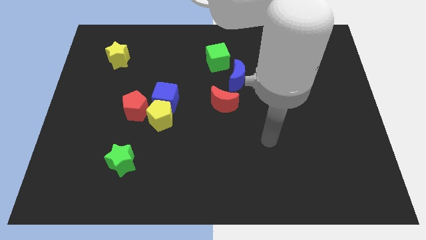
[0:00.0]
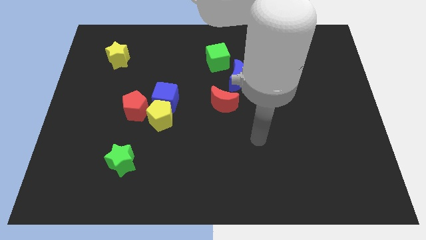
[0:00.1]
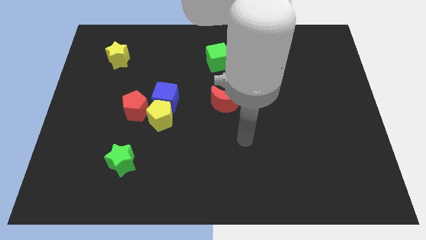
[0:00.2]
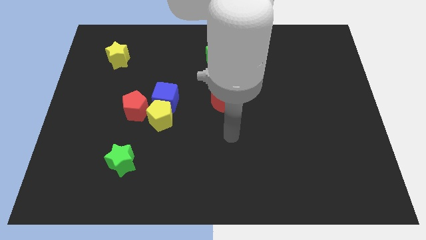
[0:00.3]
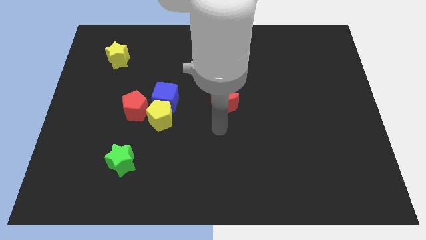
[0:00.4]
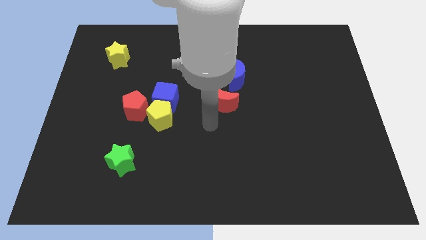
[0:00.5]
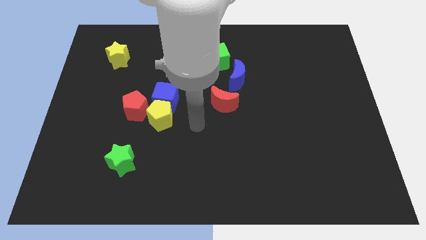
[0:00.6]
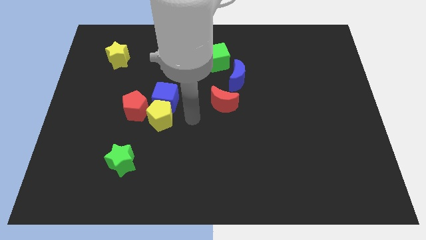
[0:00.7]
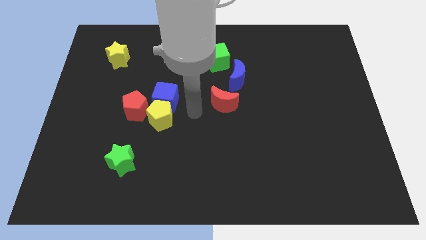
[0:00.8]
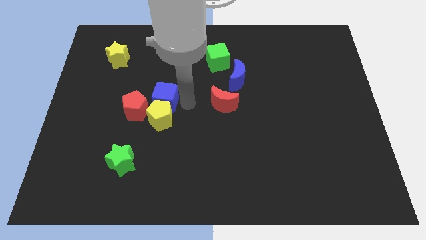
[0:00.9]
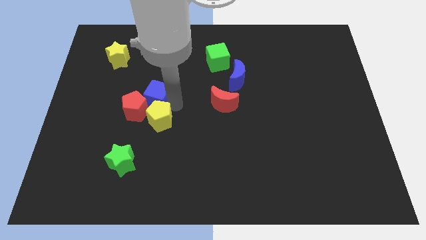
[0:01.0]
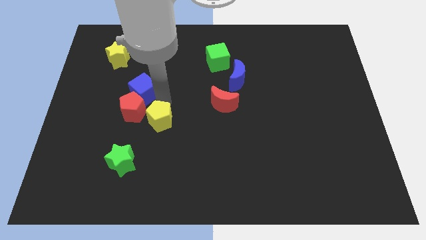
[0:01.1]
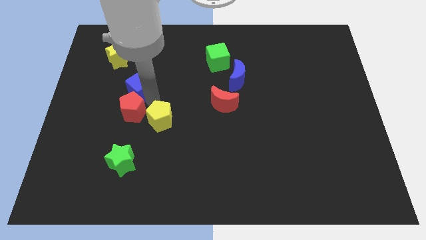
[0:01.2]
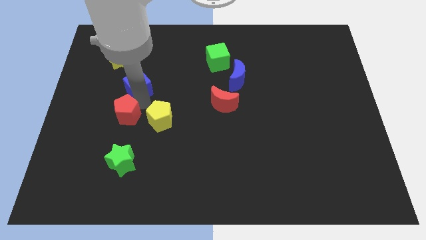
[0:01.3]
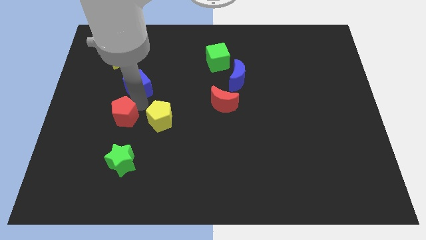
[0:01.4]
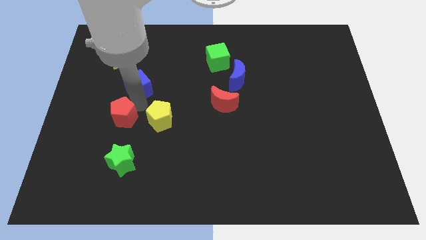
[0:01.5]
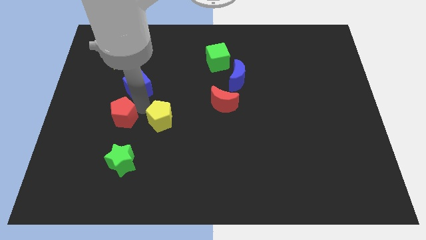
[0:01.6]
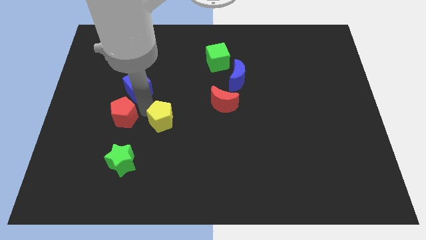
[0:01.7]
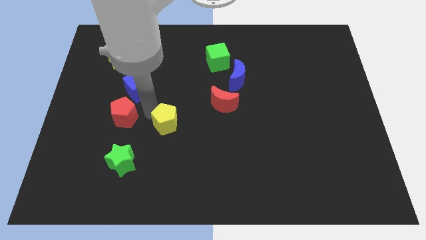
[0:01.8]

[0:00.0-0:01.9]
move the yellow pentagon away from the blue cube and red pentagon

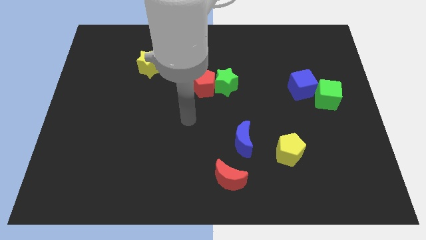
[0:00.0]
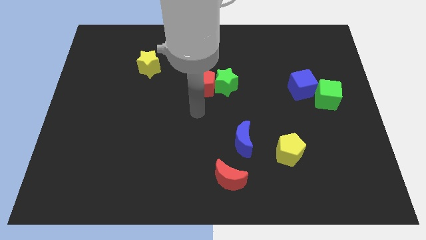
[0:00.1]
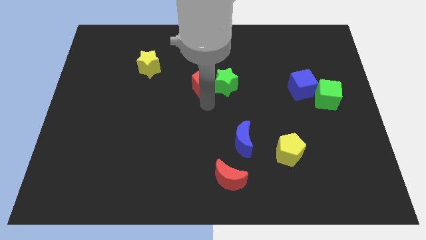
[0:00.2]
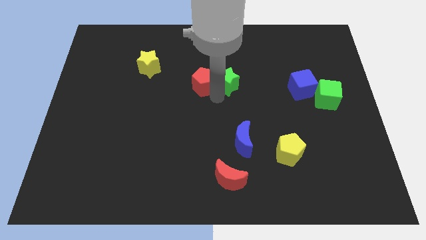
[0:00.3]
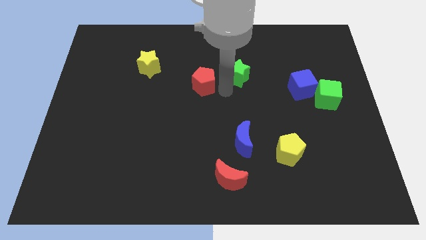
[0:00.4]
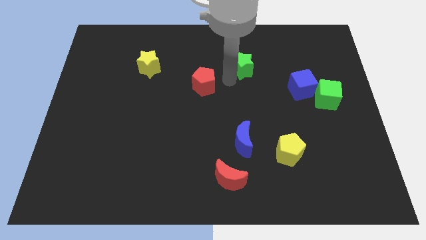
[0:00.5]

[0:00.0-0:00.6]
pull the red pentagon apart from the green star

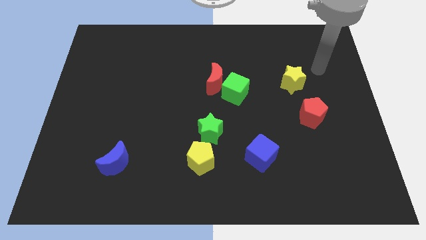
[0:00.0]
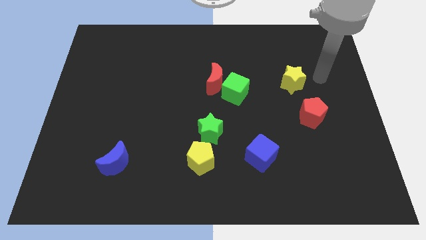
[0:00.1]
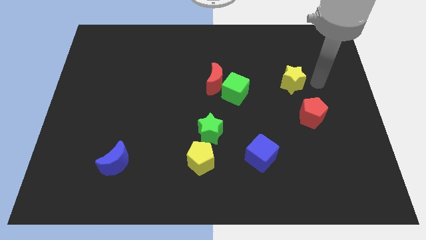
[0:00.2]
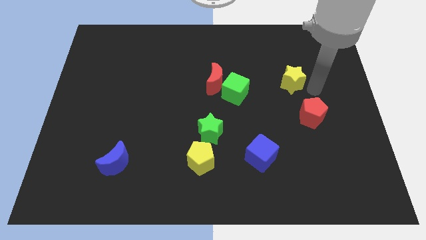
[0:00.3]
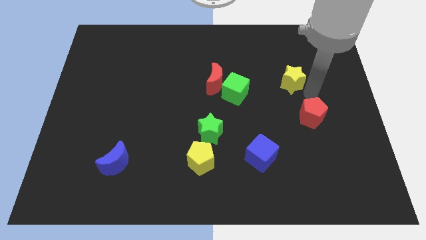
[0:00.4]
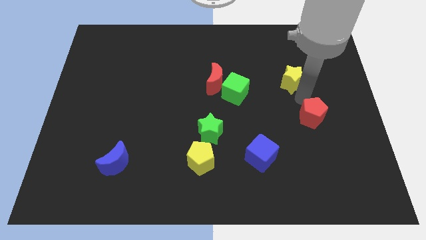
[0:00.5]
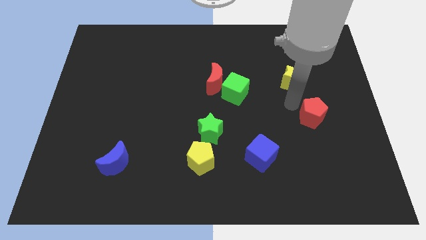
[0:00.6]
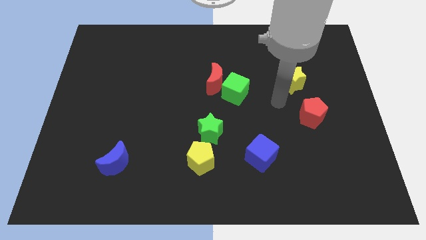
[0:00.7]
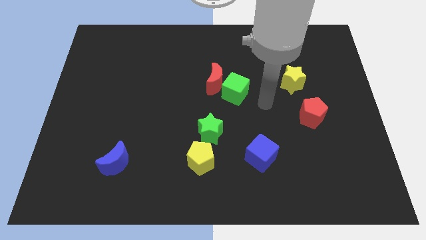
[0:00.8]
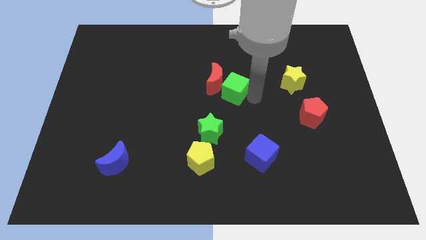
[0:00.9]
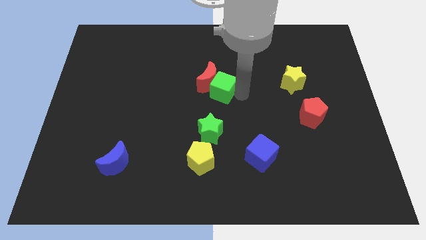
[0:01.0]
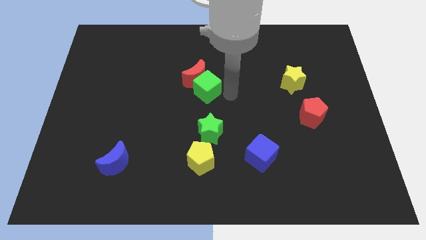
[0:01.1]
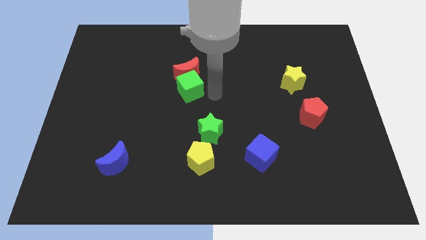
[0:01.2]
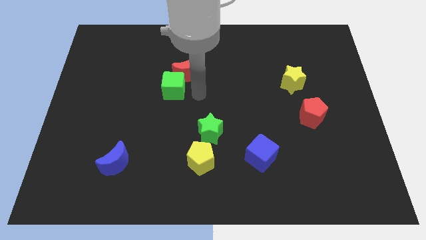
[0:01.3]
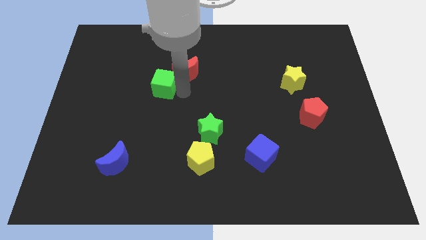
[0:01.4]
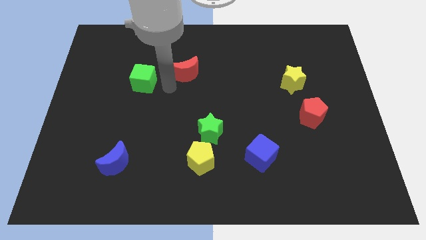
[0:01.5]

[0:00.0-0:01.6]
separate the red moon from the green cube

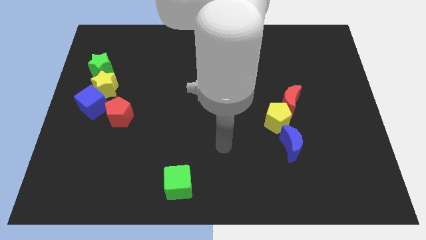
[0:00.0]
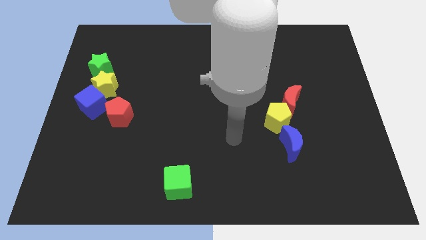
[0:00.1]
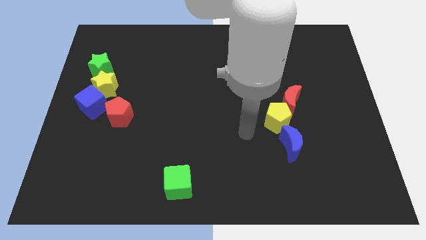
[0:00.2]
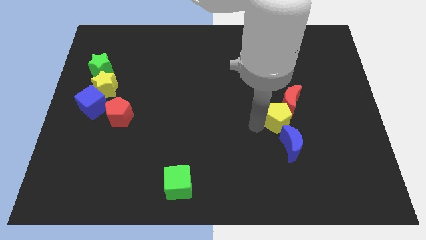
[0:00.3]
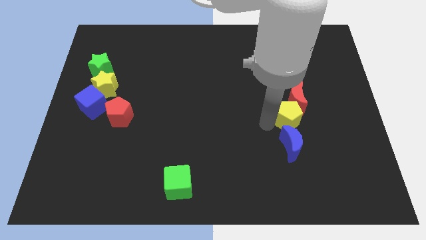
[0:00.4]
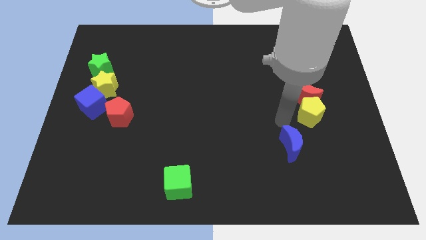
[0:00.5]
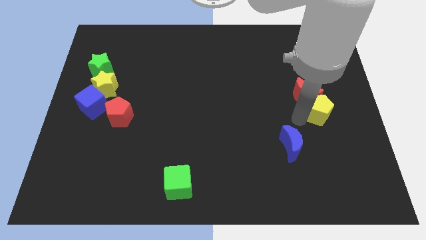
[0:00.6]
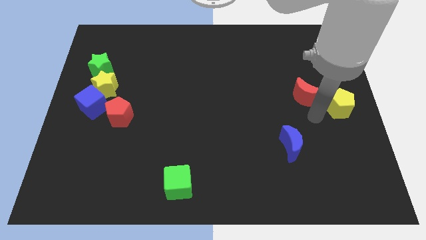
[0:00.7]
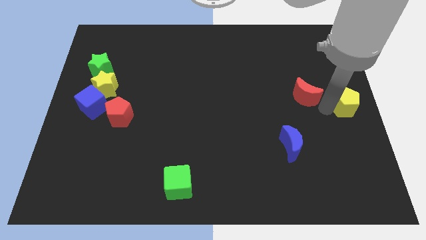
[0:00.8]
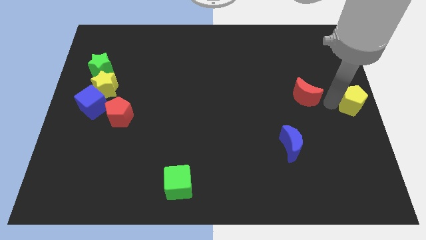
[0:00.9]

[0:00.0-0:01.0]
move the red moon away from the yellow pentagon

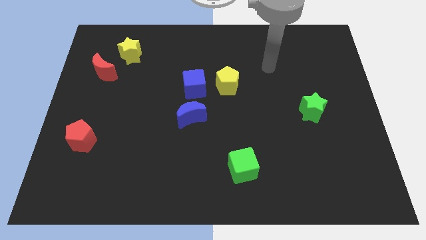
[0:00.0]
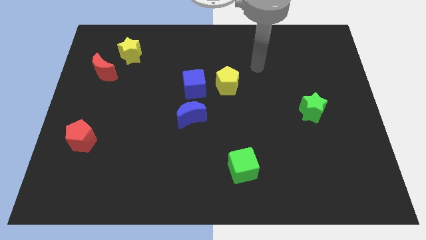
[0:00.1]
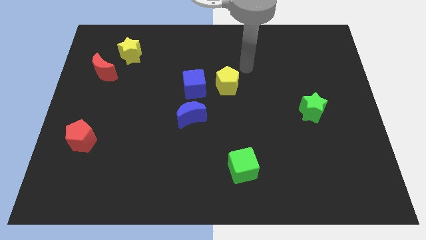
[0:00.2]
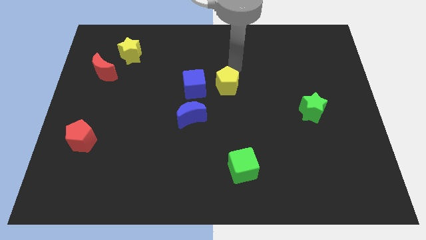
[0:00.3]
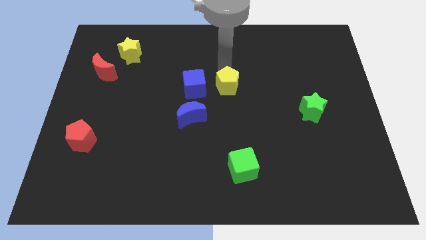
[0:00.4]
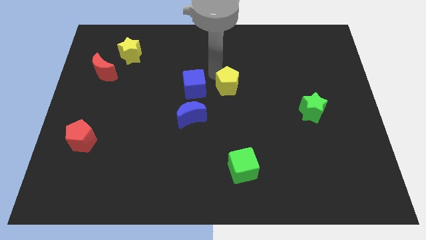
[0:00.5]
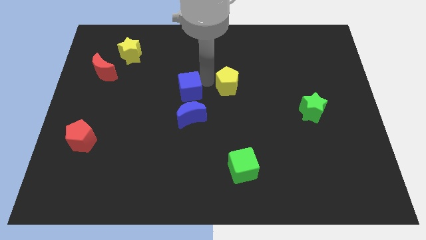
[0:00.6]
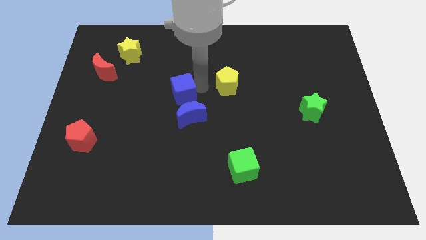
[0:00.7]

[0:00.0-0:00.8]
move the yellow pentagon away from the blue cube

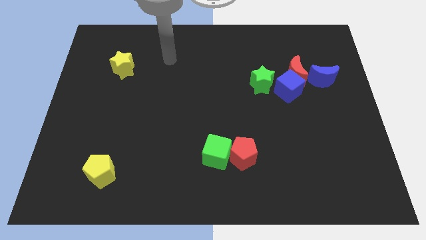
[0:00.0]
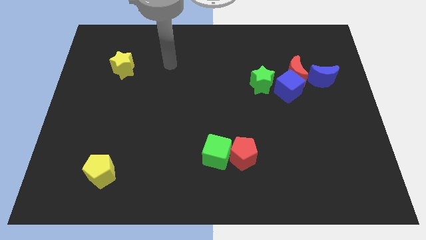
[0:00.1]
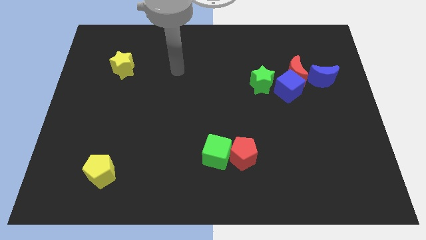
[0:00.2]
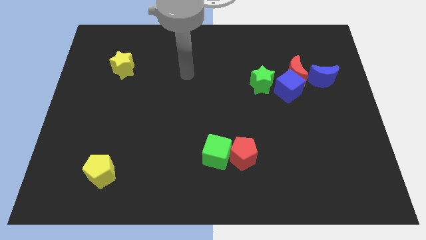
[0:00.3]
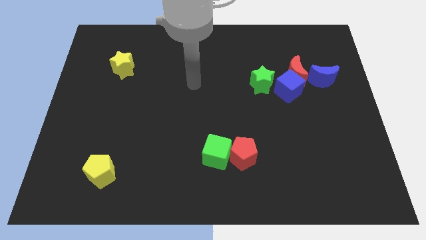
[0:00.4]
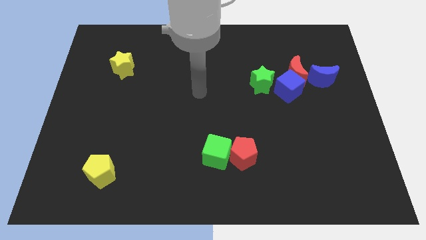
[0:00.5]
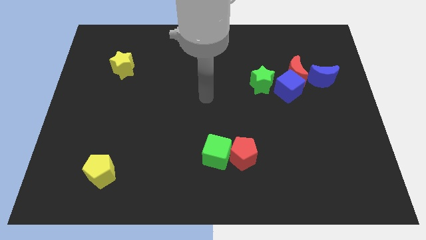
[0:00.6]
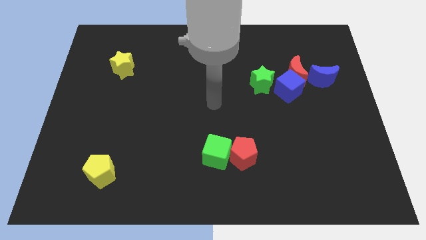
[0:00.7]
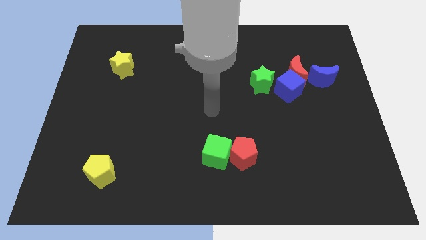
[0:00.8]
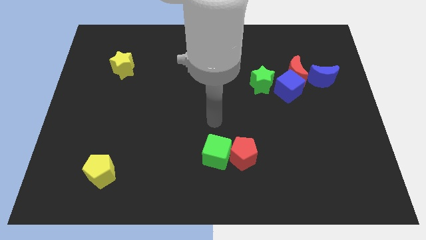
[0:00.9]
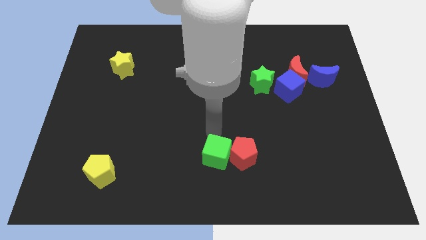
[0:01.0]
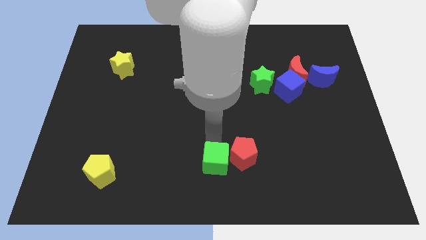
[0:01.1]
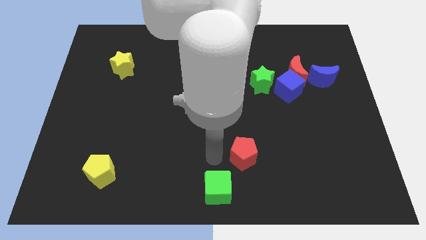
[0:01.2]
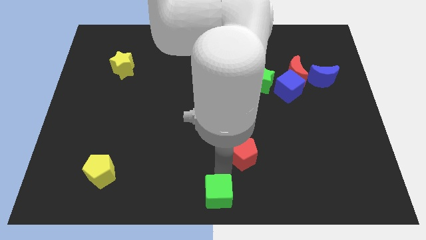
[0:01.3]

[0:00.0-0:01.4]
separate the red pentagon from the green cube

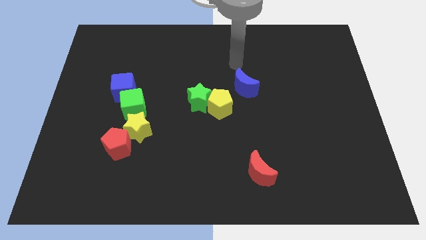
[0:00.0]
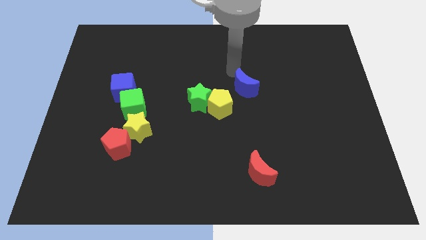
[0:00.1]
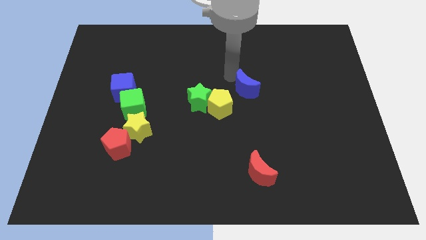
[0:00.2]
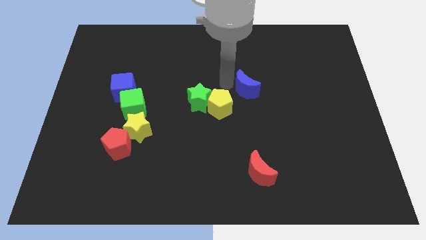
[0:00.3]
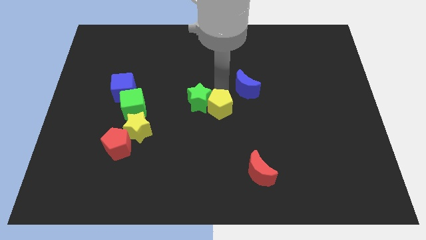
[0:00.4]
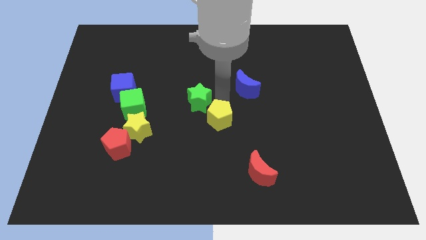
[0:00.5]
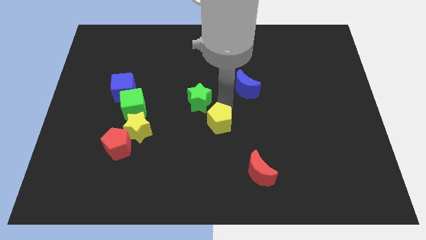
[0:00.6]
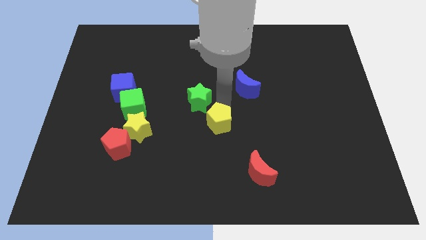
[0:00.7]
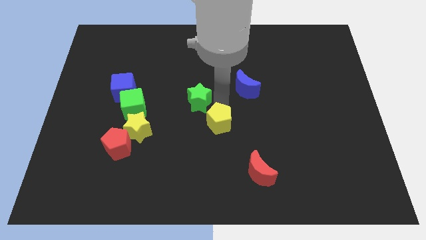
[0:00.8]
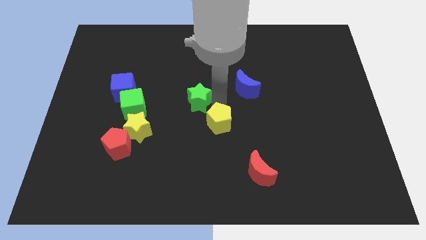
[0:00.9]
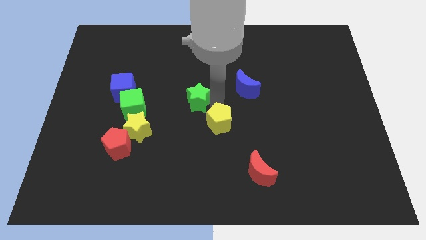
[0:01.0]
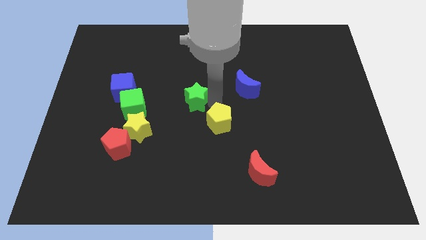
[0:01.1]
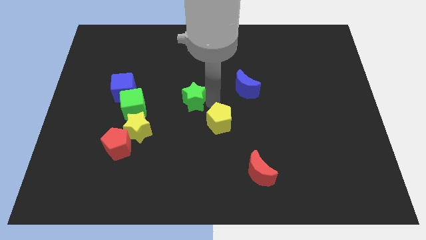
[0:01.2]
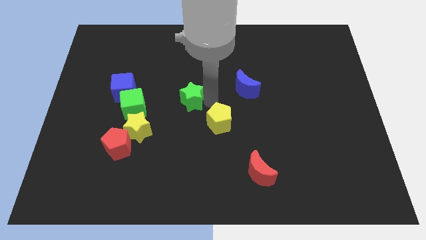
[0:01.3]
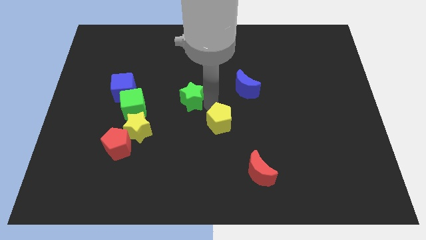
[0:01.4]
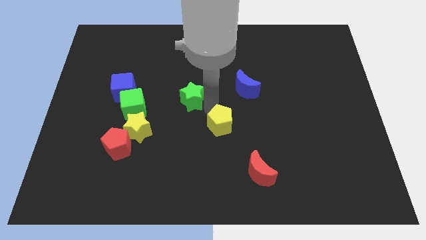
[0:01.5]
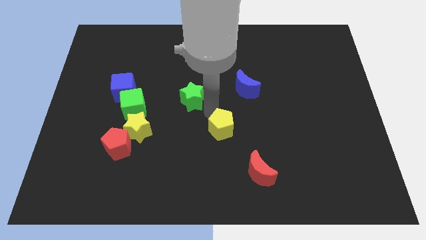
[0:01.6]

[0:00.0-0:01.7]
separate the green star from the yellow pentagon

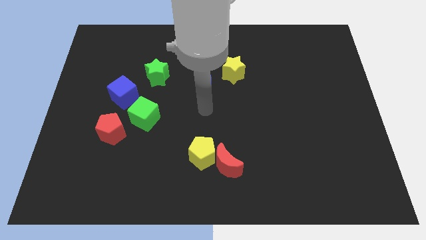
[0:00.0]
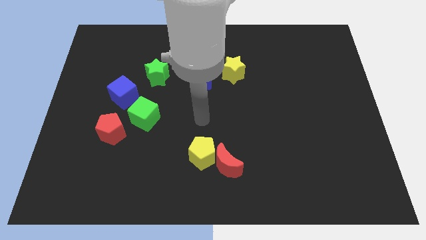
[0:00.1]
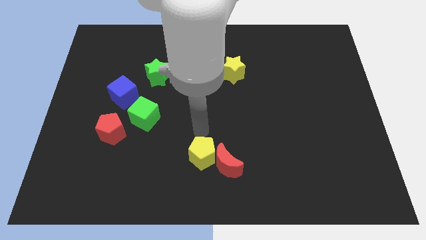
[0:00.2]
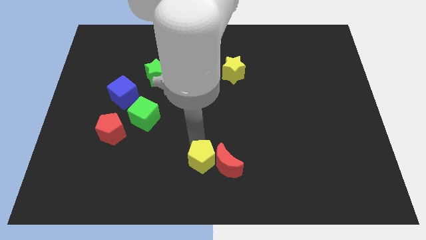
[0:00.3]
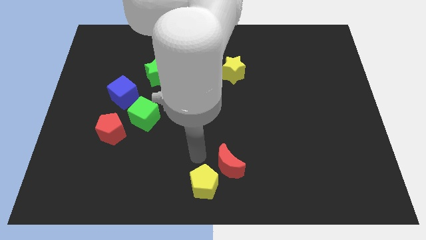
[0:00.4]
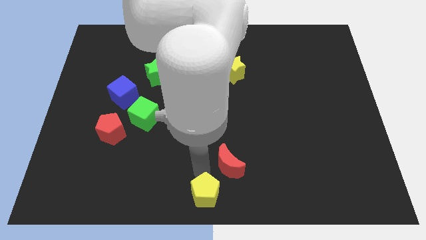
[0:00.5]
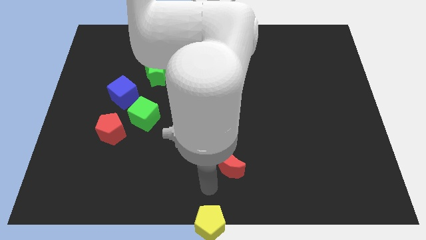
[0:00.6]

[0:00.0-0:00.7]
separate the red moon from the yellow pentagon
